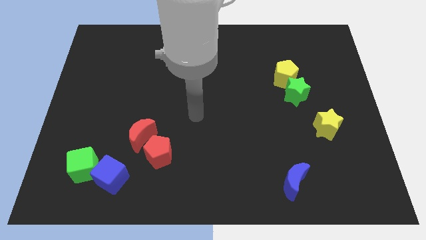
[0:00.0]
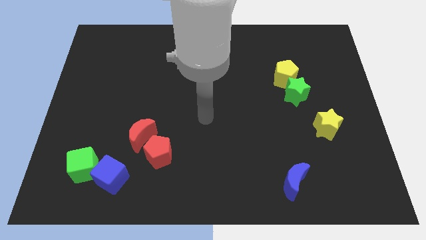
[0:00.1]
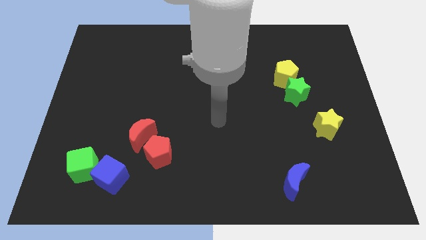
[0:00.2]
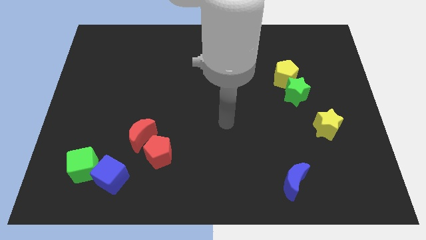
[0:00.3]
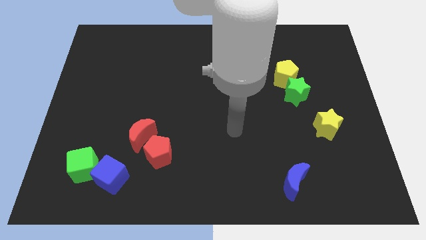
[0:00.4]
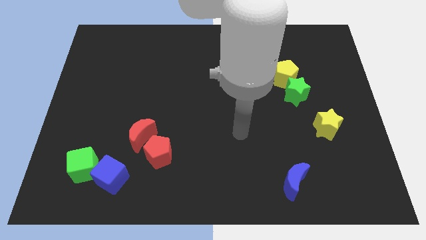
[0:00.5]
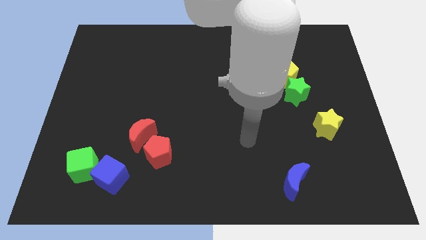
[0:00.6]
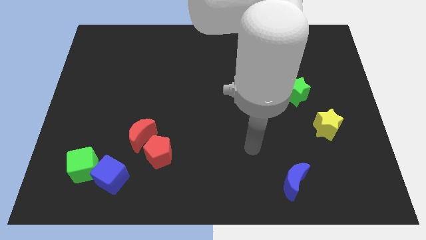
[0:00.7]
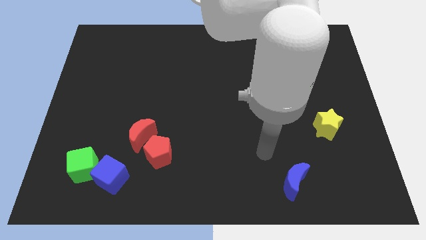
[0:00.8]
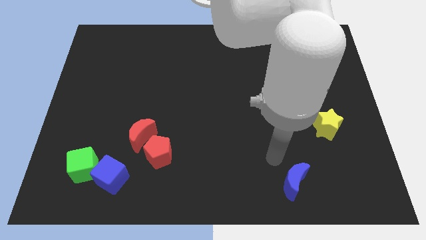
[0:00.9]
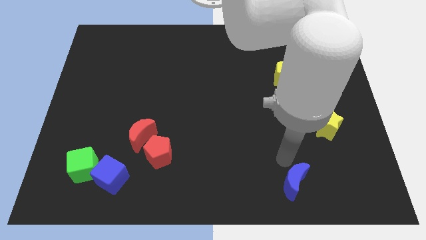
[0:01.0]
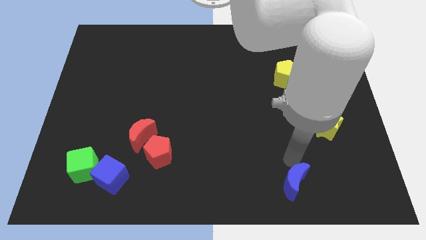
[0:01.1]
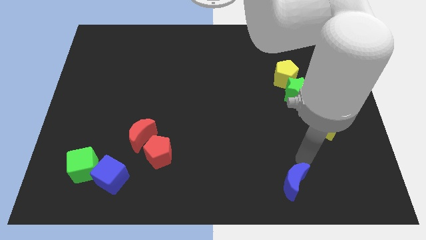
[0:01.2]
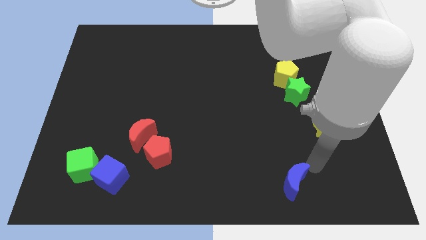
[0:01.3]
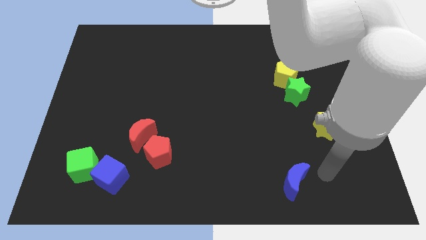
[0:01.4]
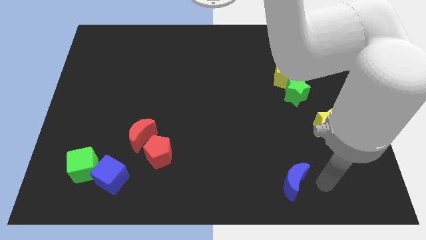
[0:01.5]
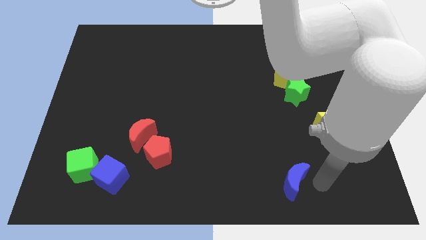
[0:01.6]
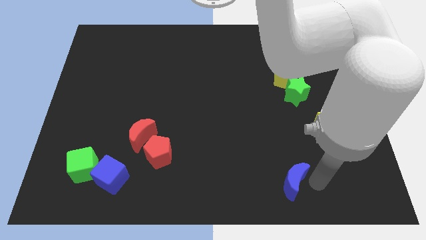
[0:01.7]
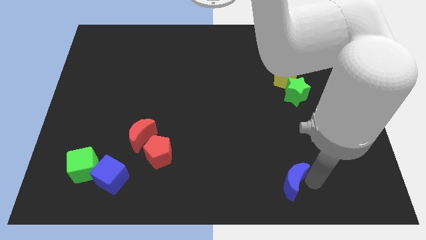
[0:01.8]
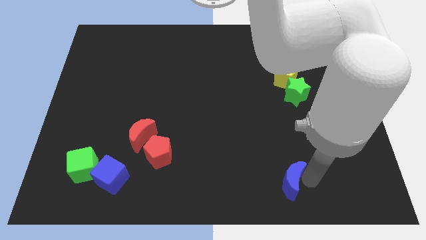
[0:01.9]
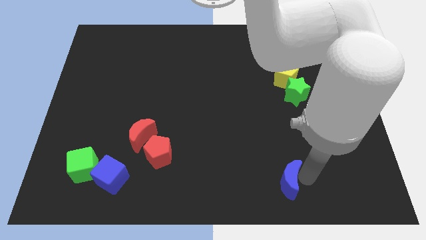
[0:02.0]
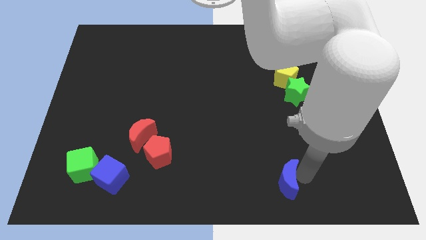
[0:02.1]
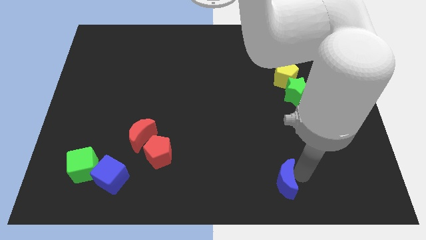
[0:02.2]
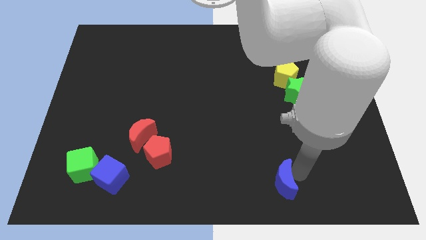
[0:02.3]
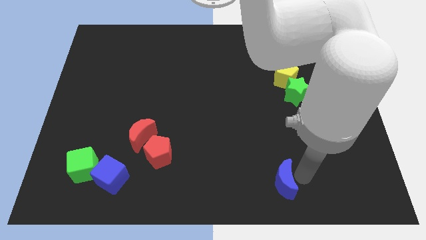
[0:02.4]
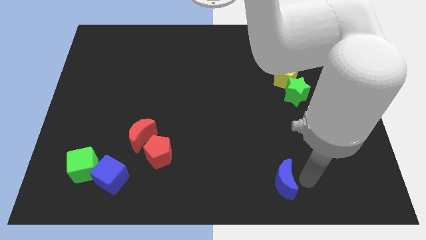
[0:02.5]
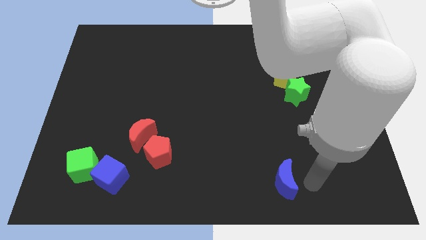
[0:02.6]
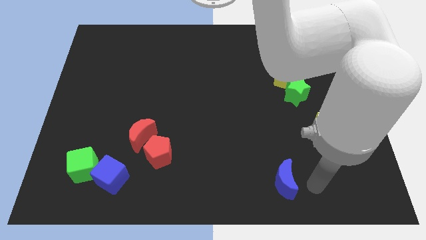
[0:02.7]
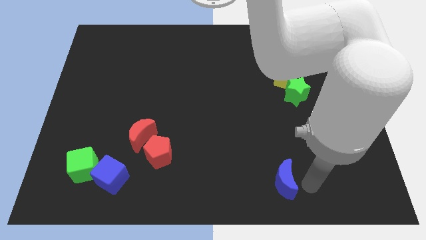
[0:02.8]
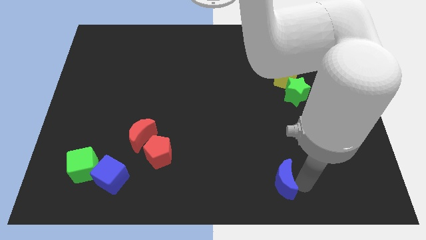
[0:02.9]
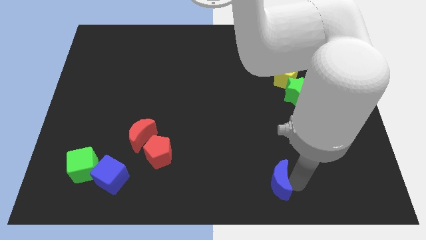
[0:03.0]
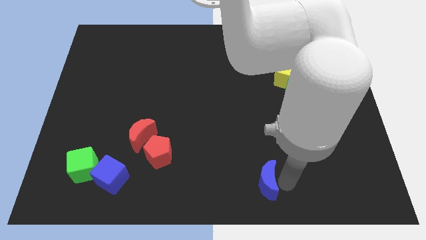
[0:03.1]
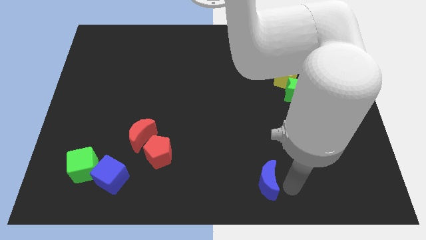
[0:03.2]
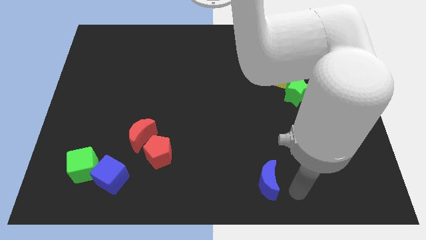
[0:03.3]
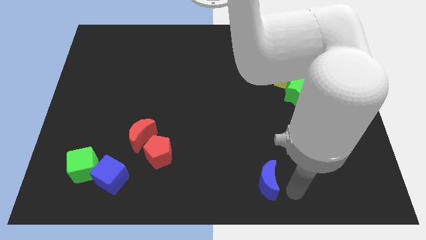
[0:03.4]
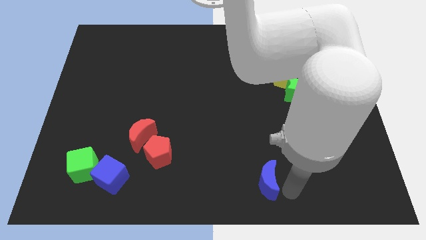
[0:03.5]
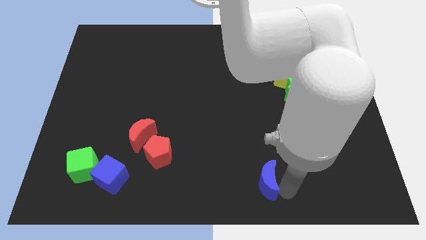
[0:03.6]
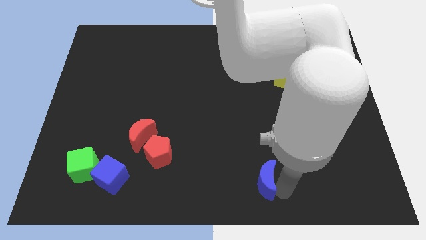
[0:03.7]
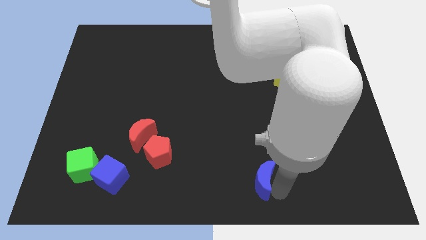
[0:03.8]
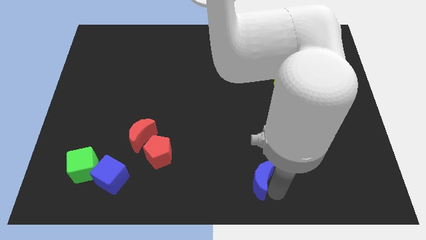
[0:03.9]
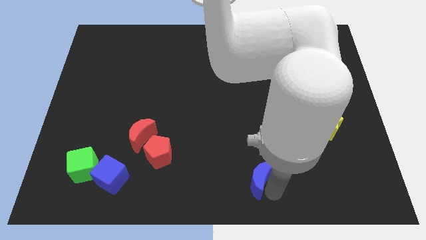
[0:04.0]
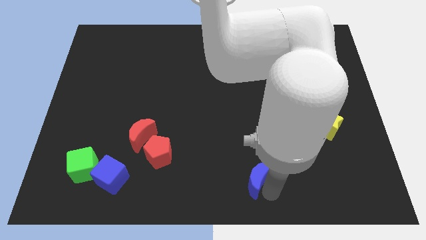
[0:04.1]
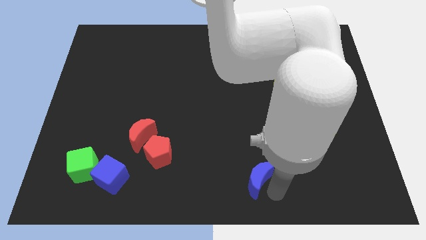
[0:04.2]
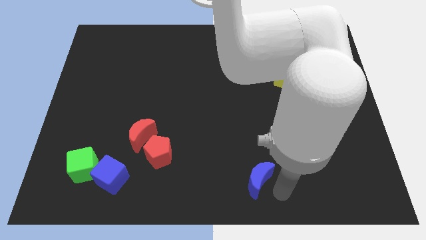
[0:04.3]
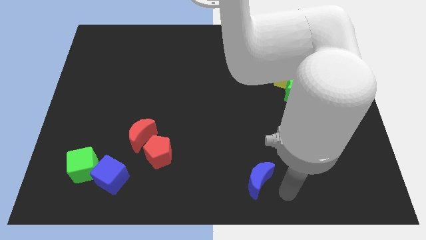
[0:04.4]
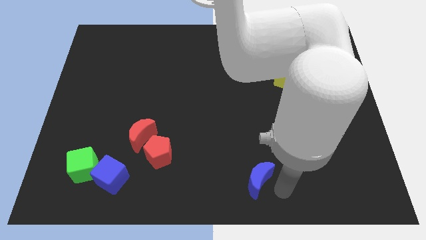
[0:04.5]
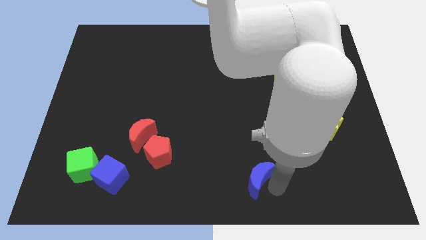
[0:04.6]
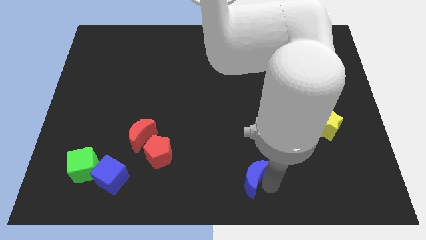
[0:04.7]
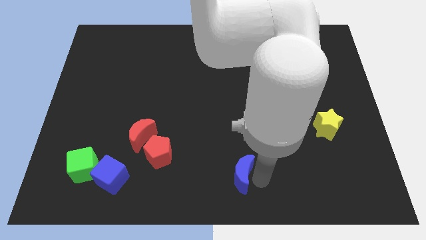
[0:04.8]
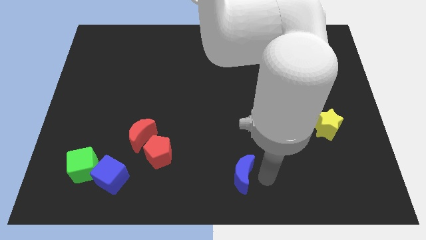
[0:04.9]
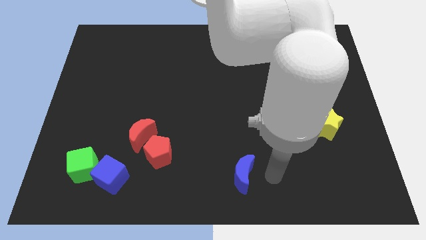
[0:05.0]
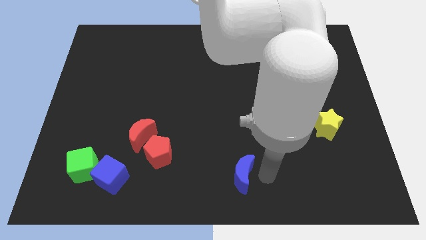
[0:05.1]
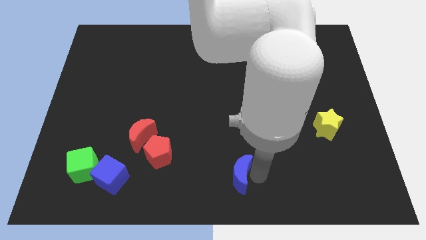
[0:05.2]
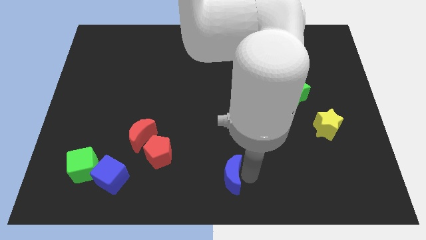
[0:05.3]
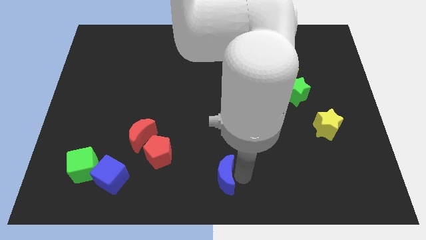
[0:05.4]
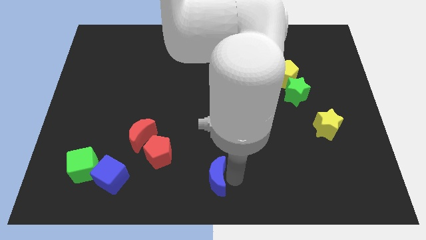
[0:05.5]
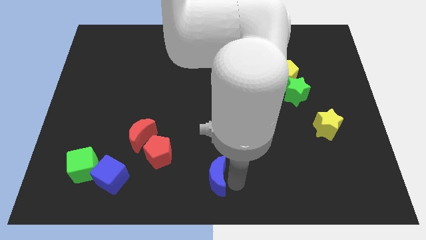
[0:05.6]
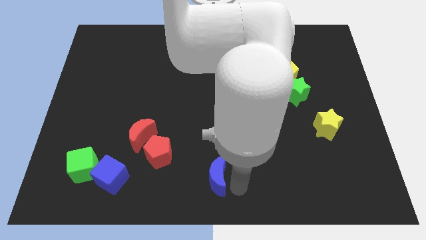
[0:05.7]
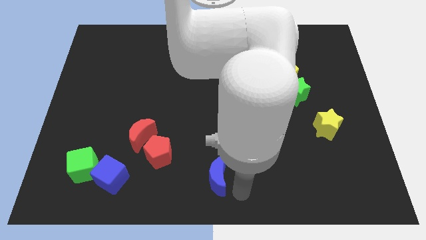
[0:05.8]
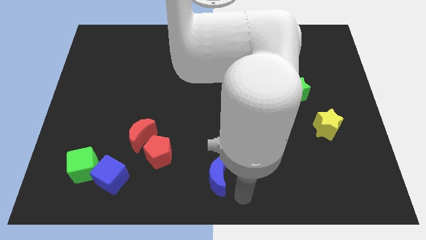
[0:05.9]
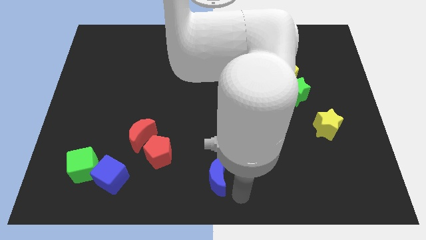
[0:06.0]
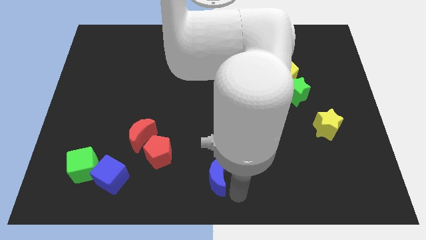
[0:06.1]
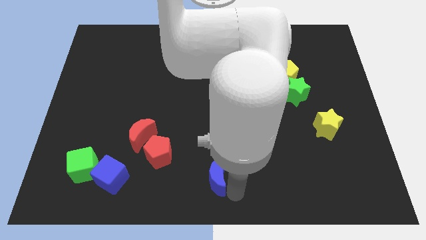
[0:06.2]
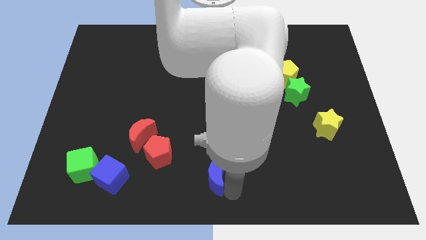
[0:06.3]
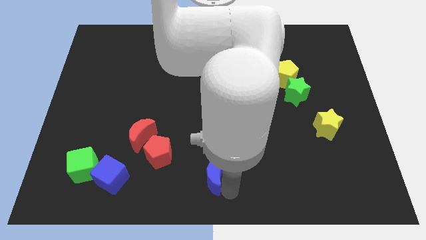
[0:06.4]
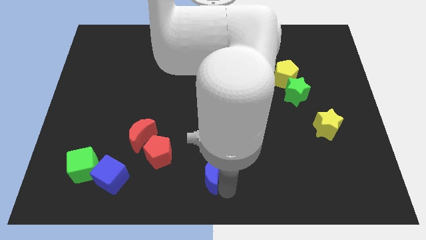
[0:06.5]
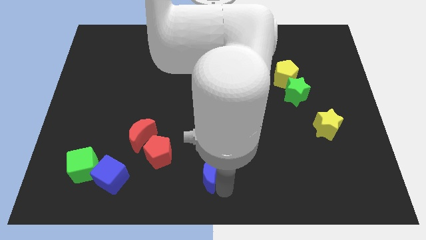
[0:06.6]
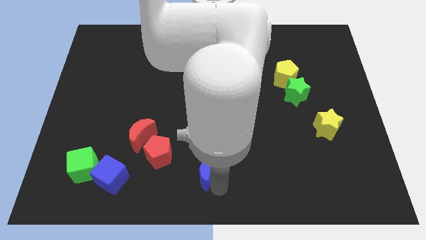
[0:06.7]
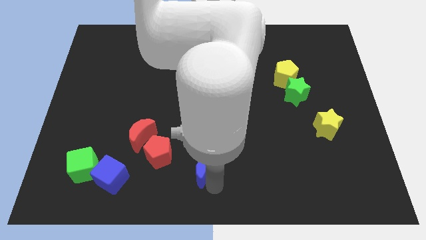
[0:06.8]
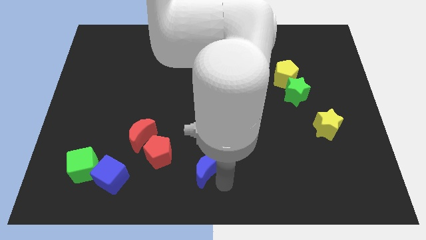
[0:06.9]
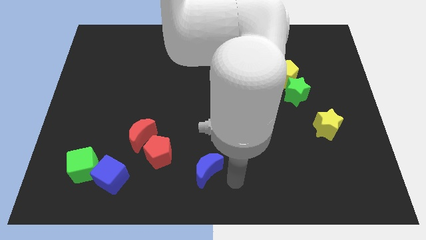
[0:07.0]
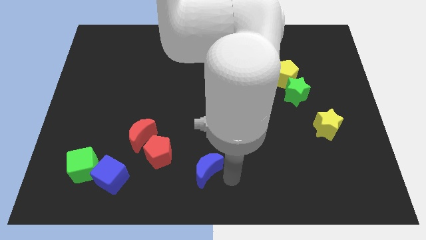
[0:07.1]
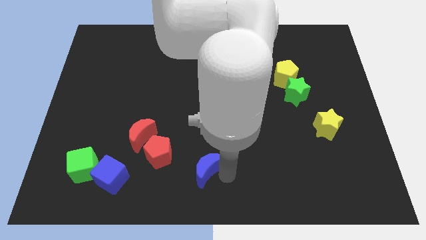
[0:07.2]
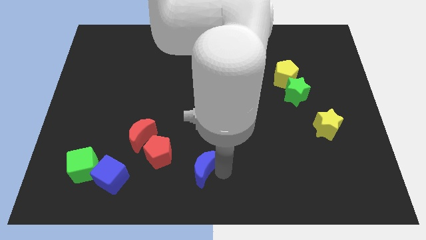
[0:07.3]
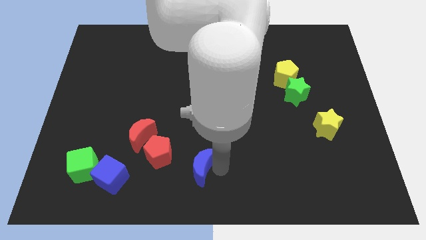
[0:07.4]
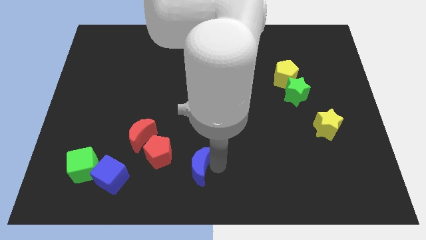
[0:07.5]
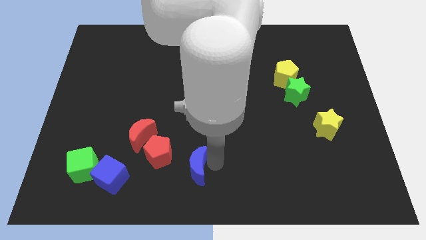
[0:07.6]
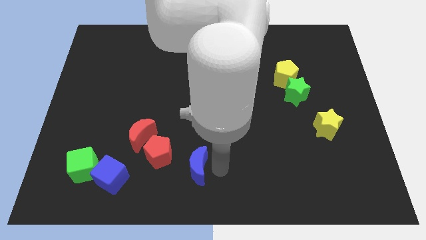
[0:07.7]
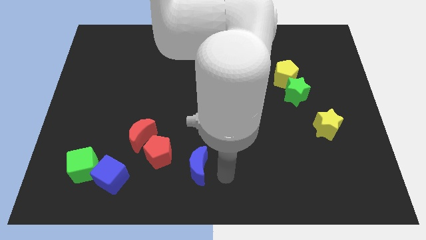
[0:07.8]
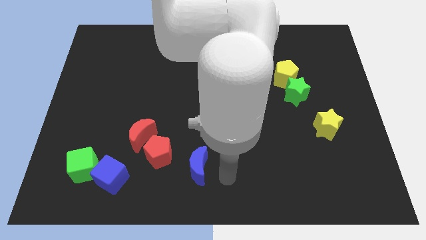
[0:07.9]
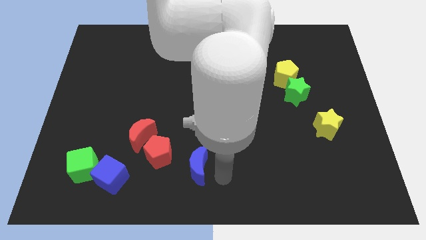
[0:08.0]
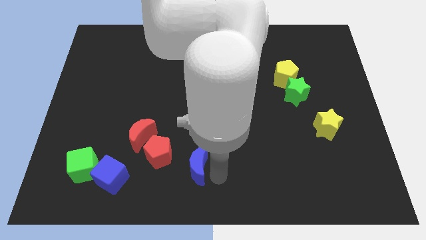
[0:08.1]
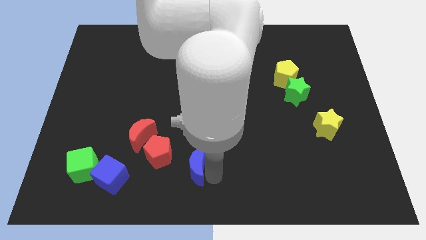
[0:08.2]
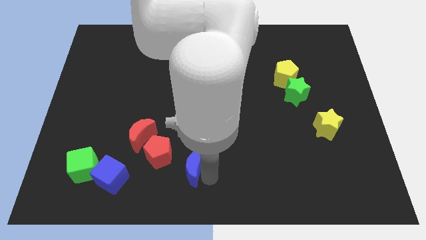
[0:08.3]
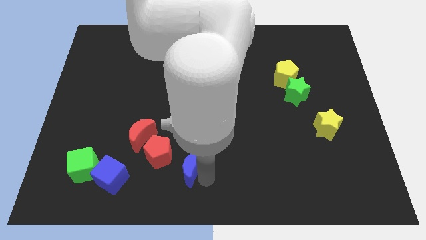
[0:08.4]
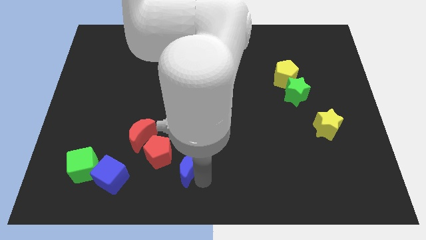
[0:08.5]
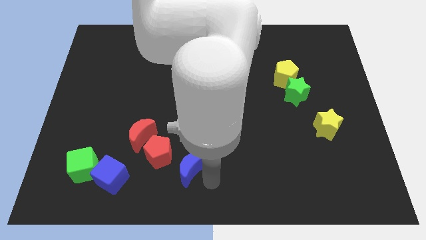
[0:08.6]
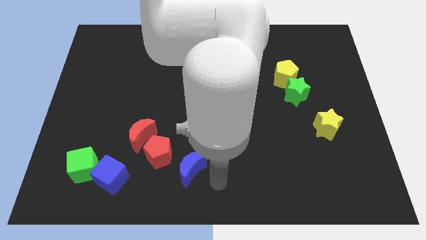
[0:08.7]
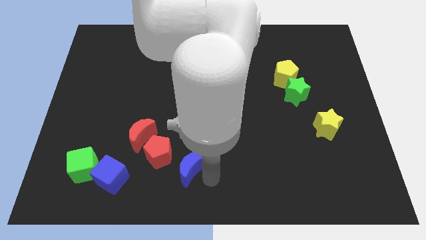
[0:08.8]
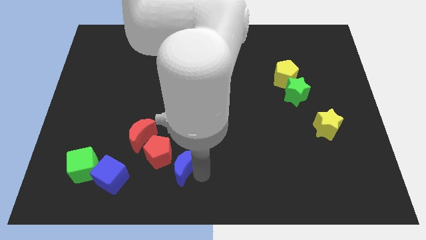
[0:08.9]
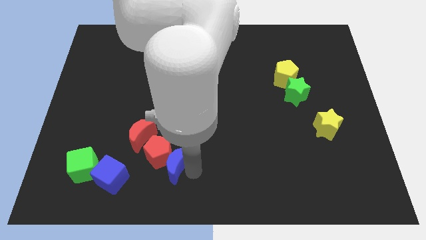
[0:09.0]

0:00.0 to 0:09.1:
put the blue moon close to the red pentagon
